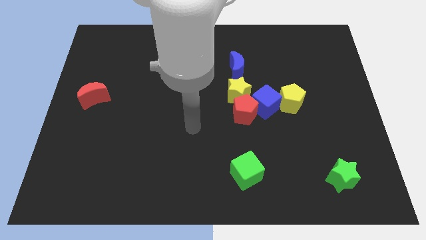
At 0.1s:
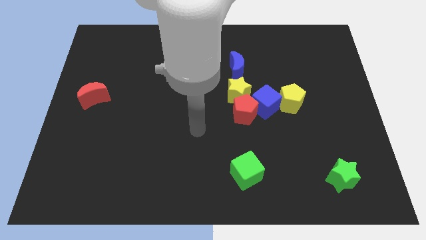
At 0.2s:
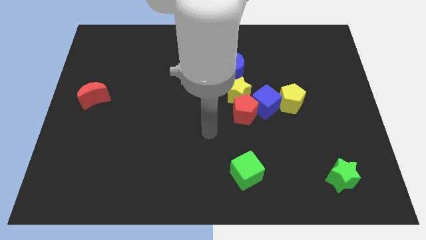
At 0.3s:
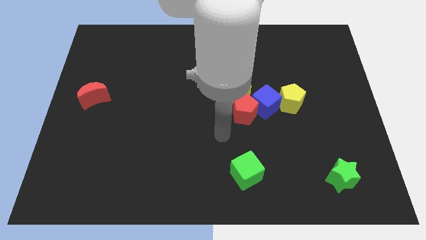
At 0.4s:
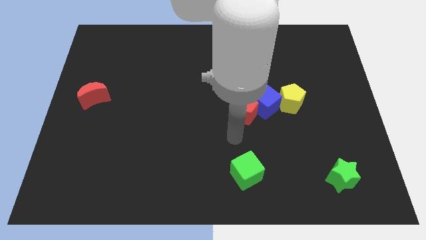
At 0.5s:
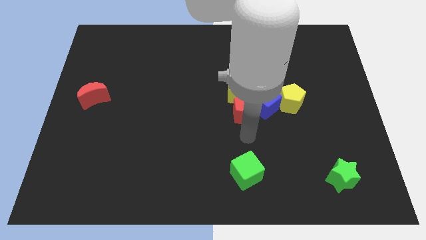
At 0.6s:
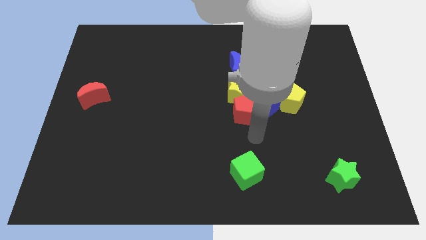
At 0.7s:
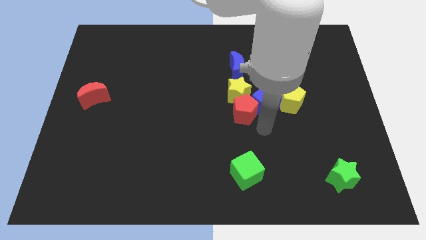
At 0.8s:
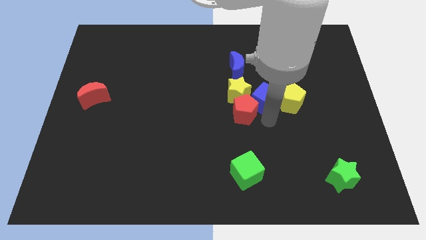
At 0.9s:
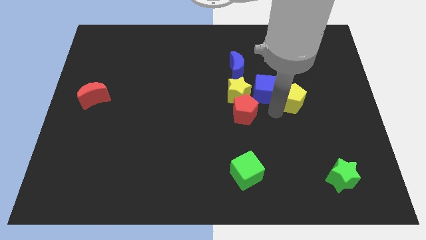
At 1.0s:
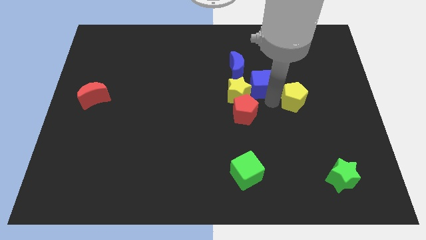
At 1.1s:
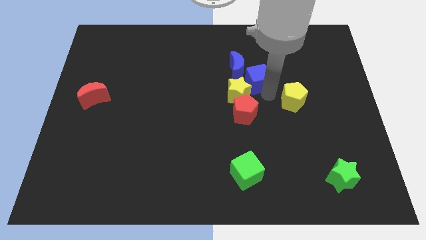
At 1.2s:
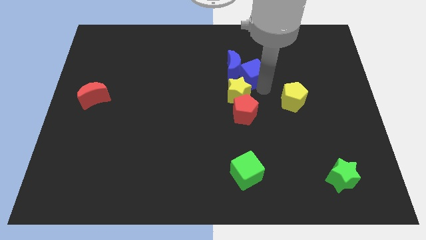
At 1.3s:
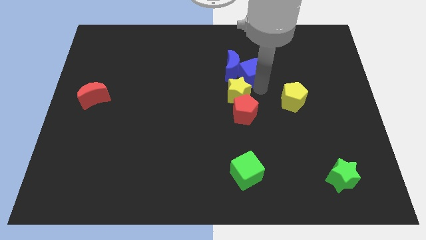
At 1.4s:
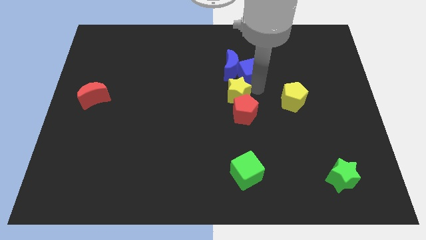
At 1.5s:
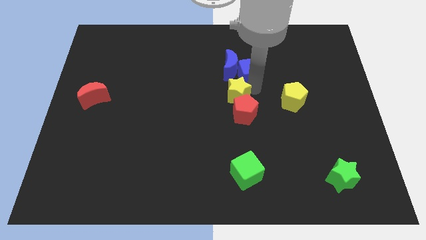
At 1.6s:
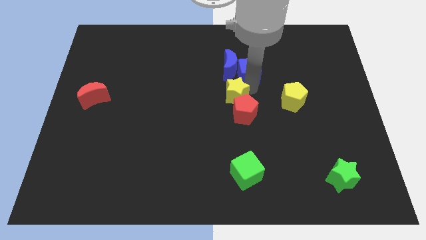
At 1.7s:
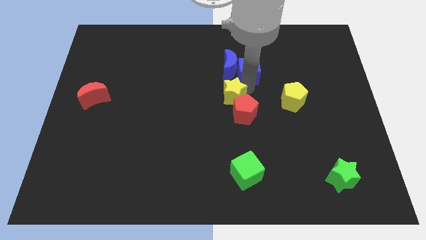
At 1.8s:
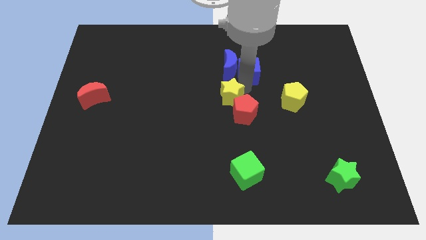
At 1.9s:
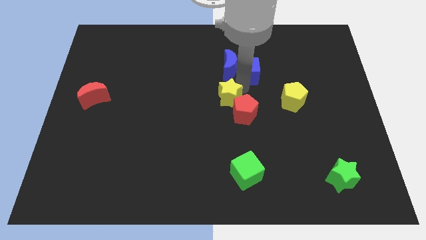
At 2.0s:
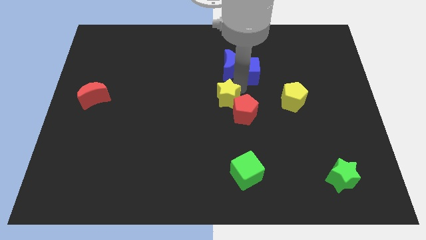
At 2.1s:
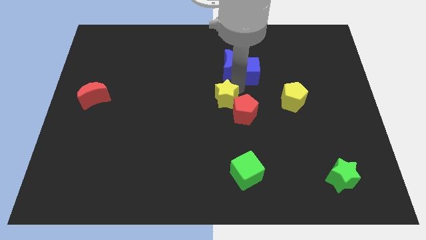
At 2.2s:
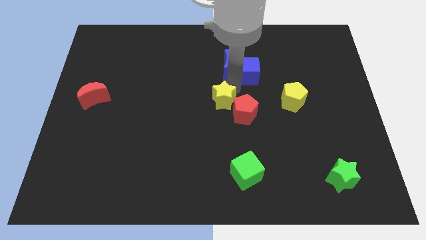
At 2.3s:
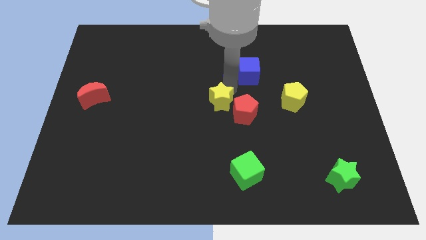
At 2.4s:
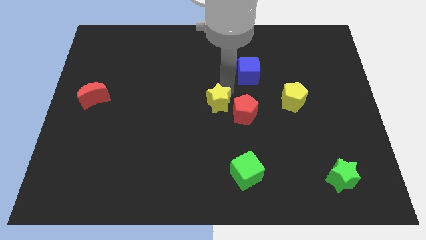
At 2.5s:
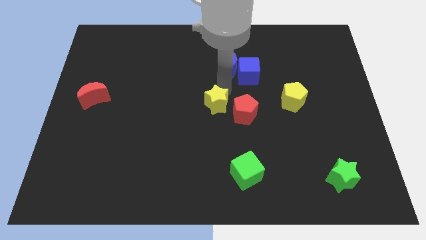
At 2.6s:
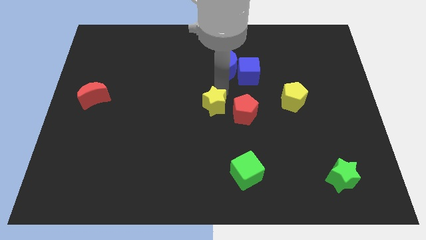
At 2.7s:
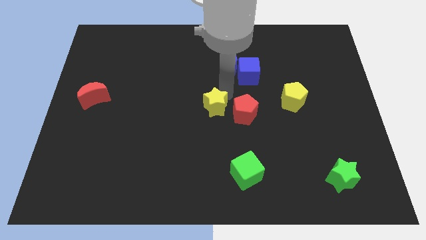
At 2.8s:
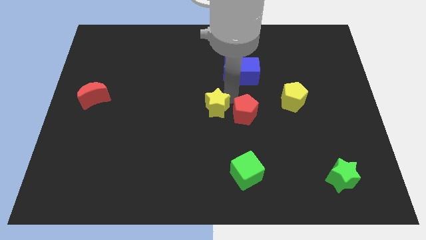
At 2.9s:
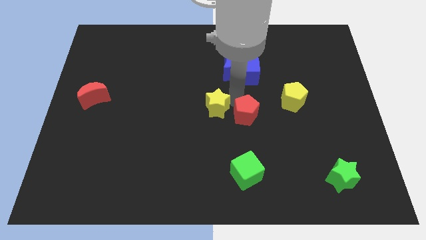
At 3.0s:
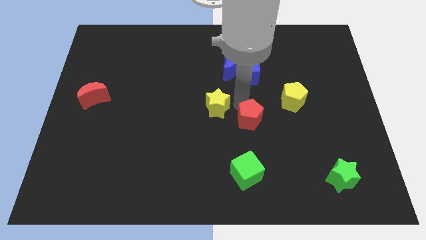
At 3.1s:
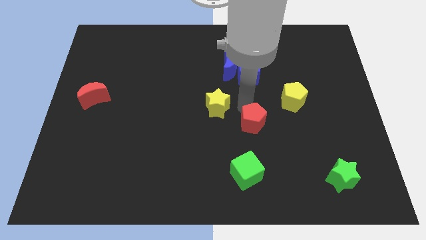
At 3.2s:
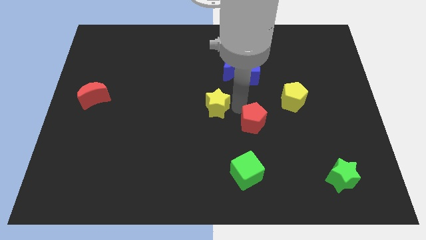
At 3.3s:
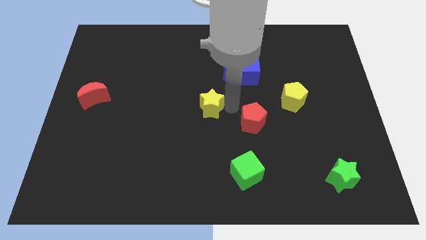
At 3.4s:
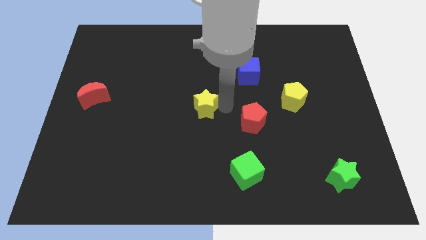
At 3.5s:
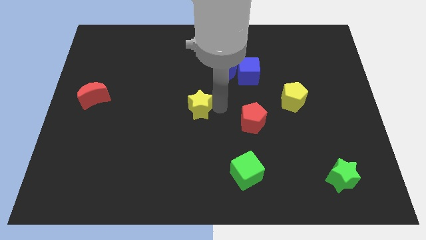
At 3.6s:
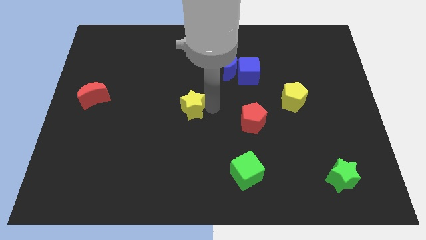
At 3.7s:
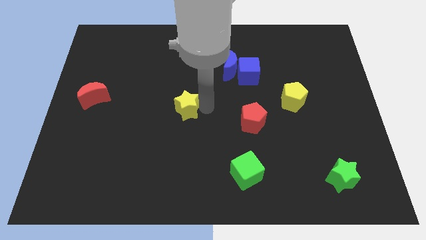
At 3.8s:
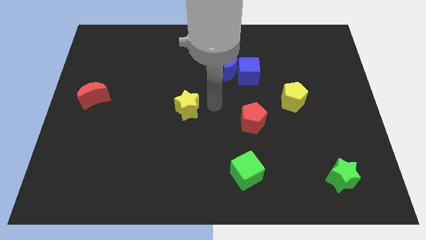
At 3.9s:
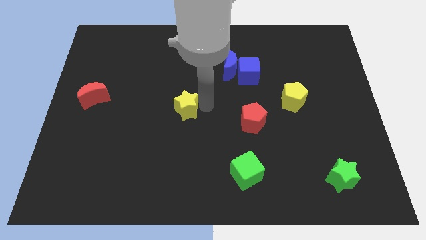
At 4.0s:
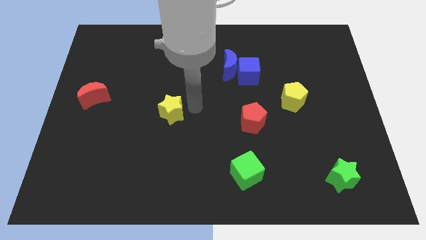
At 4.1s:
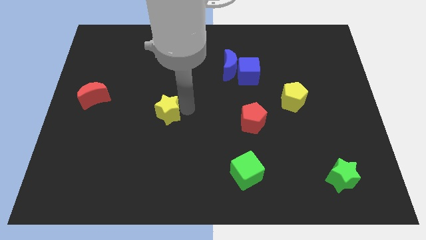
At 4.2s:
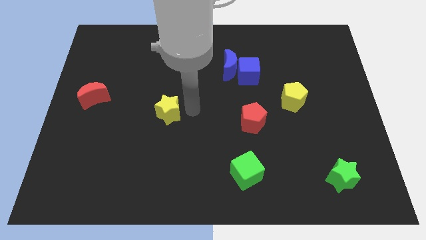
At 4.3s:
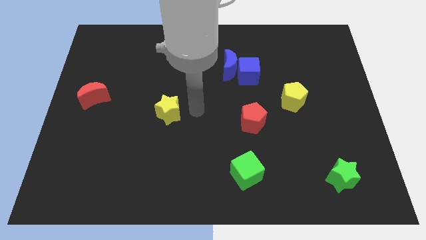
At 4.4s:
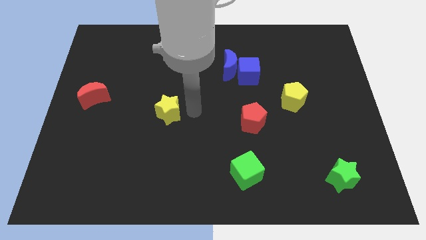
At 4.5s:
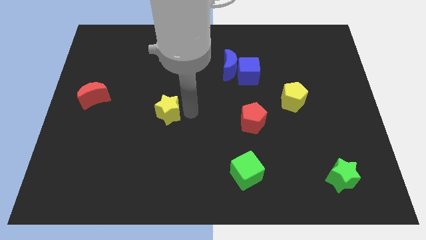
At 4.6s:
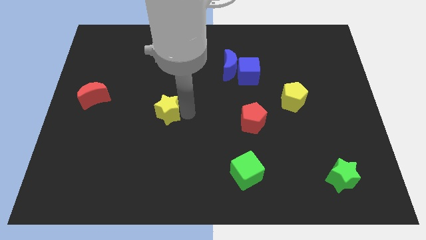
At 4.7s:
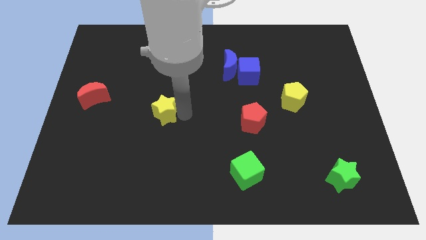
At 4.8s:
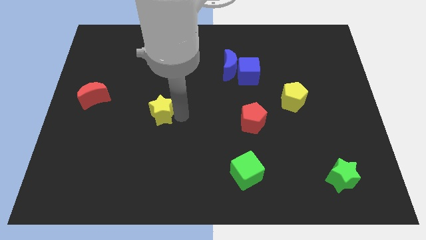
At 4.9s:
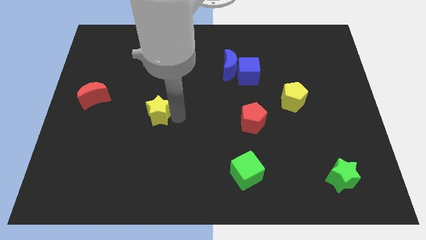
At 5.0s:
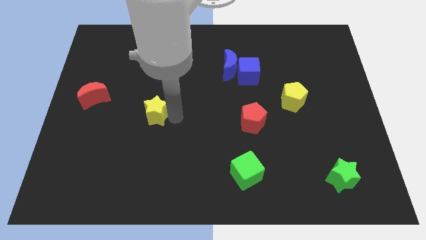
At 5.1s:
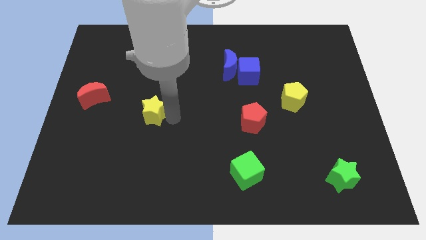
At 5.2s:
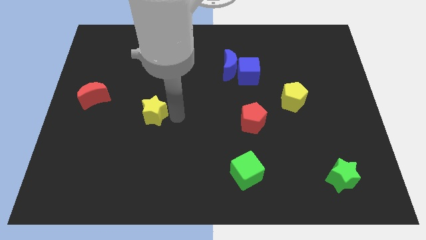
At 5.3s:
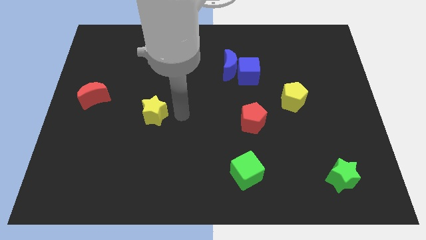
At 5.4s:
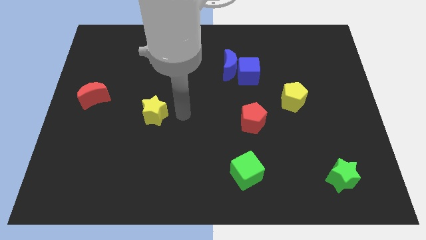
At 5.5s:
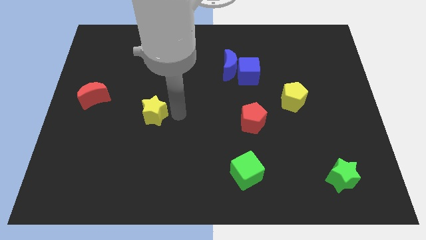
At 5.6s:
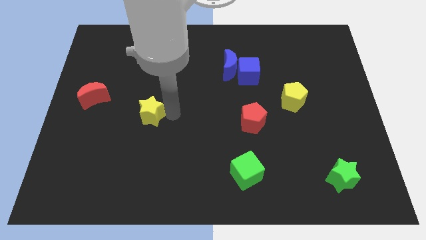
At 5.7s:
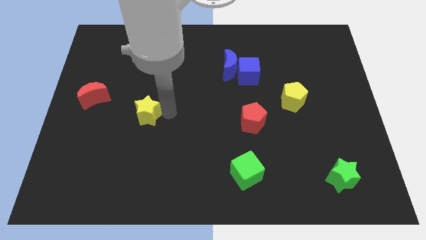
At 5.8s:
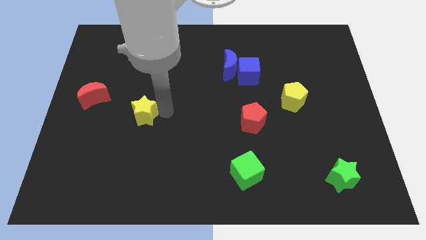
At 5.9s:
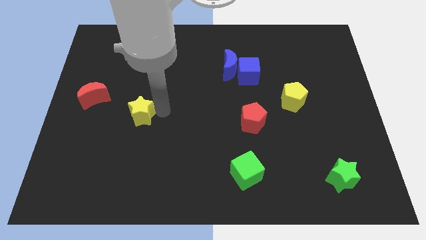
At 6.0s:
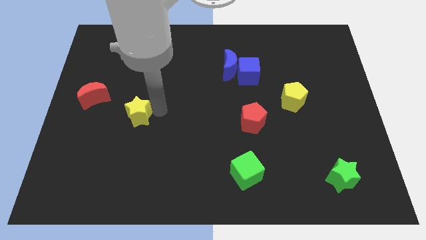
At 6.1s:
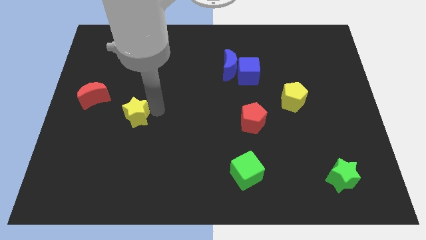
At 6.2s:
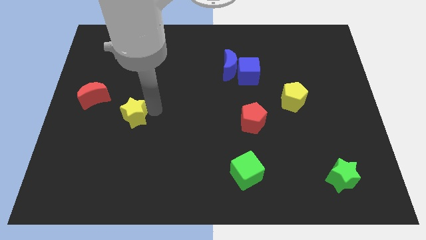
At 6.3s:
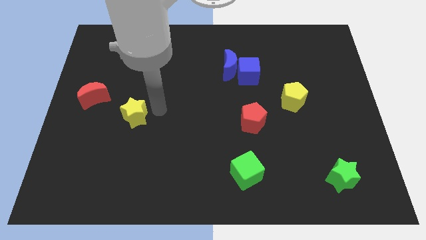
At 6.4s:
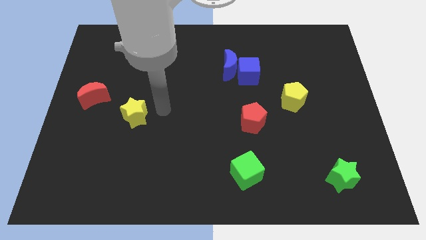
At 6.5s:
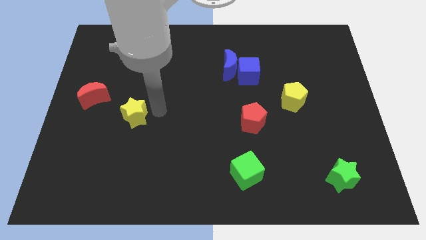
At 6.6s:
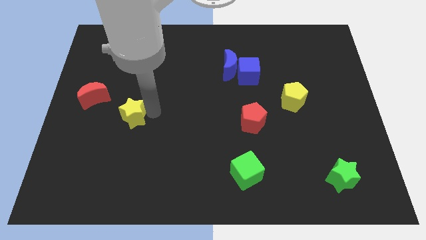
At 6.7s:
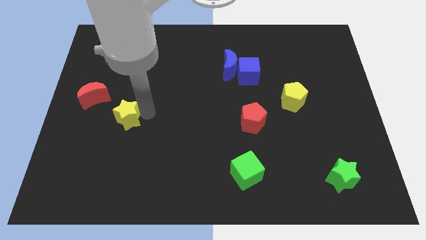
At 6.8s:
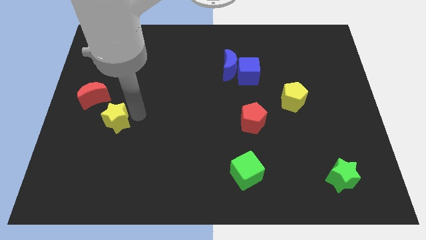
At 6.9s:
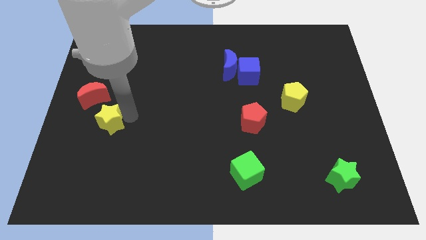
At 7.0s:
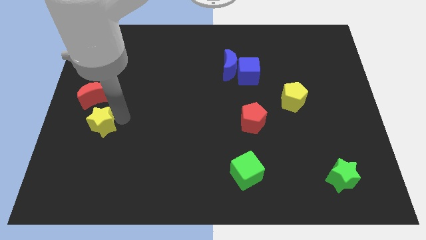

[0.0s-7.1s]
push the yellow star to the bottom side of the red moon
